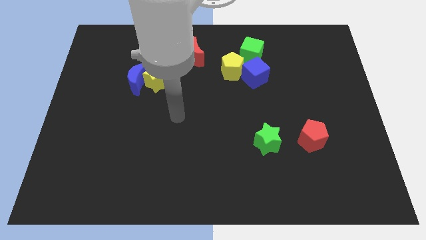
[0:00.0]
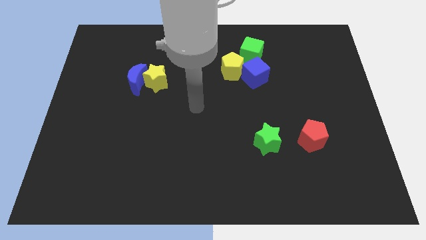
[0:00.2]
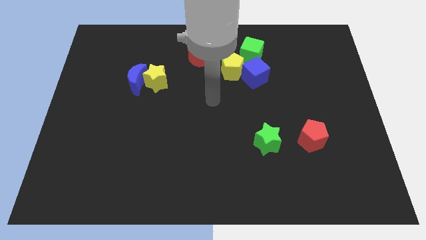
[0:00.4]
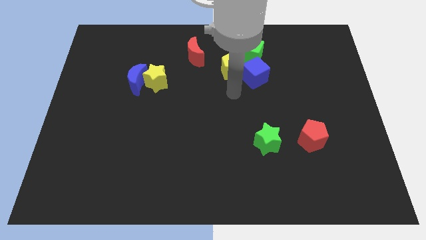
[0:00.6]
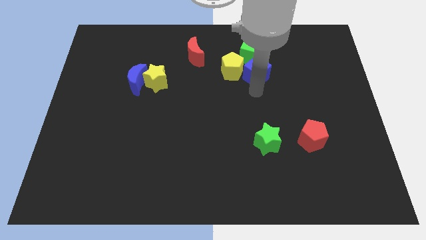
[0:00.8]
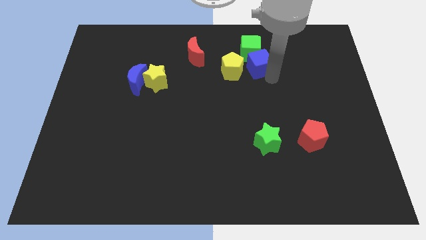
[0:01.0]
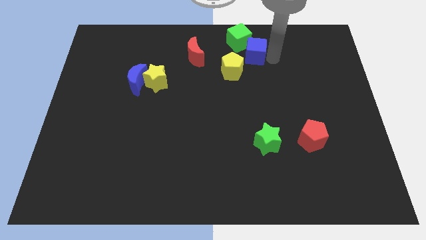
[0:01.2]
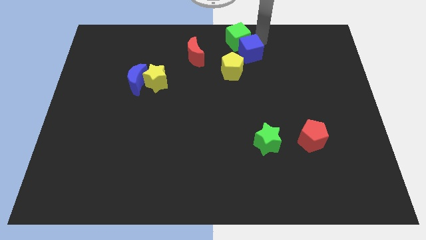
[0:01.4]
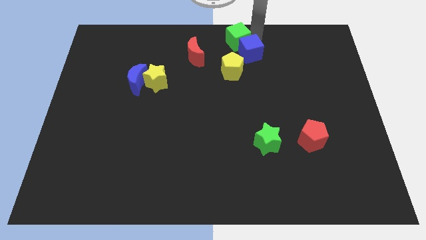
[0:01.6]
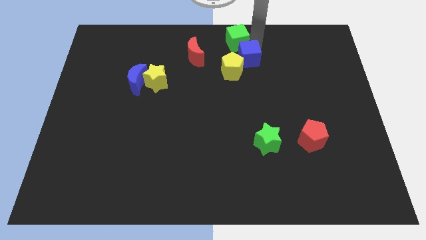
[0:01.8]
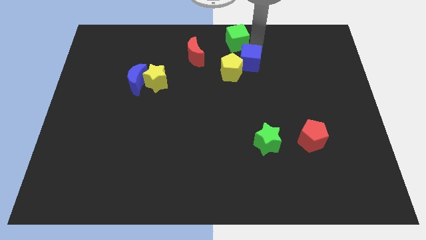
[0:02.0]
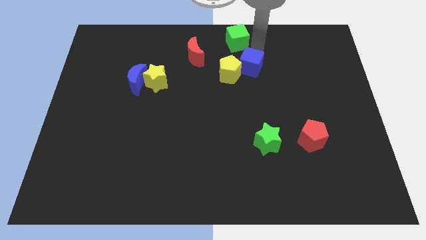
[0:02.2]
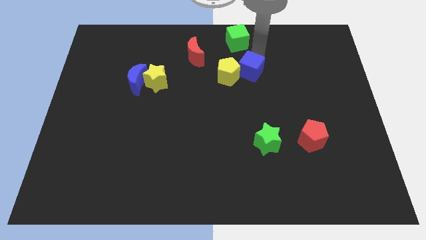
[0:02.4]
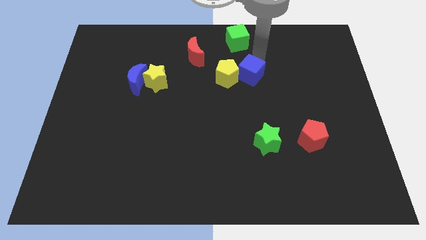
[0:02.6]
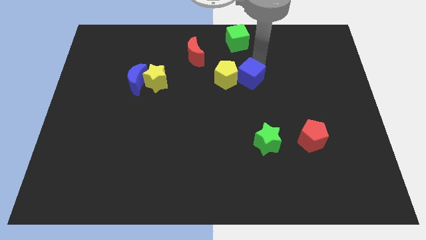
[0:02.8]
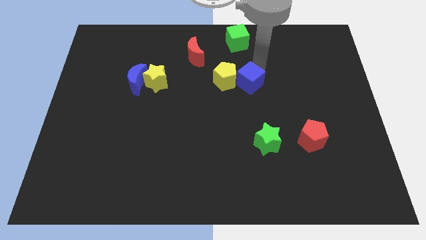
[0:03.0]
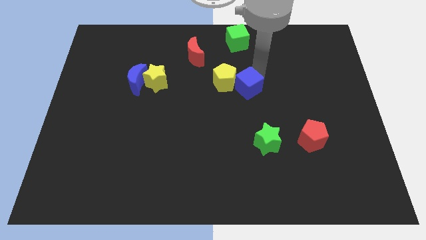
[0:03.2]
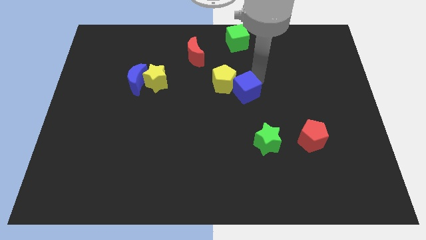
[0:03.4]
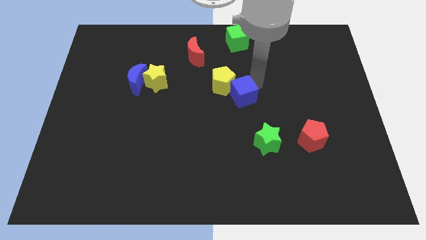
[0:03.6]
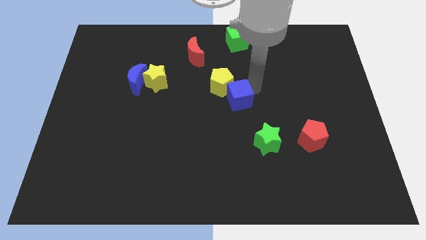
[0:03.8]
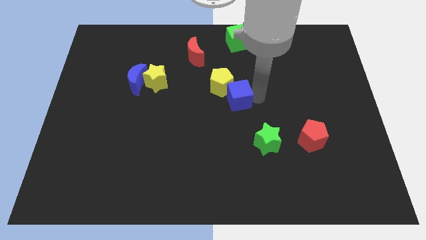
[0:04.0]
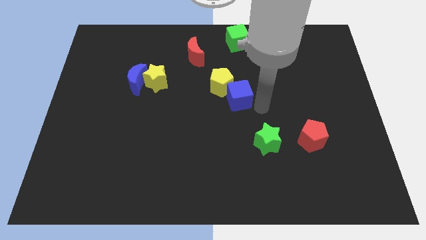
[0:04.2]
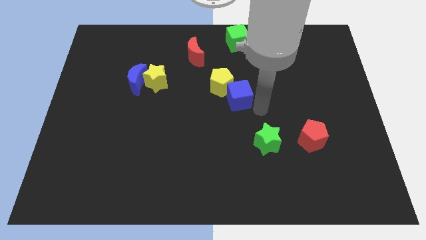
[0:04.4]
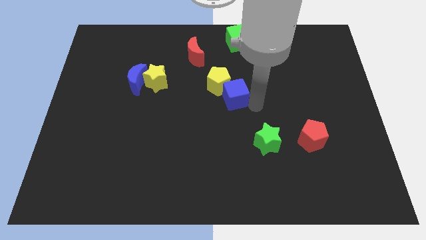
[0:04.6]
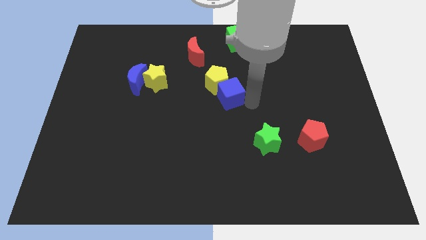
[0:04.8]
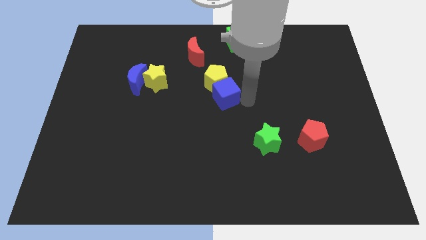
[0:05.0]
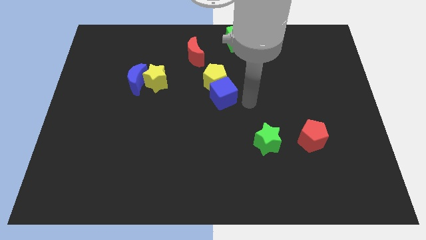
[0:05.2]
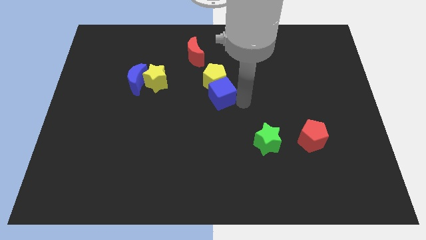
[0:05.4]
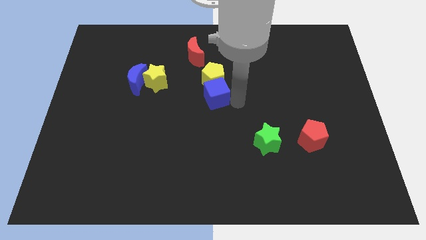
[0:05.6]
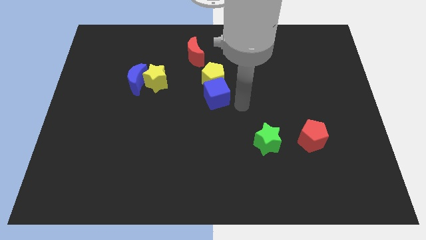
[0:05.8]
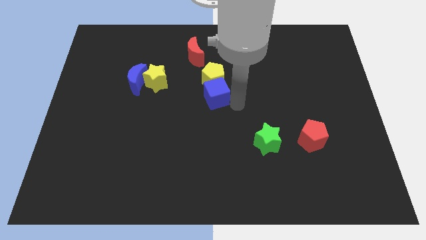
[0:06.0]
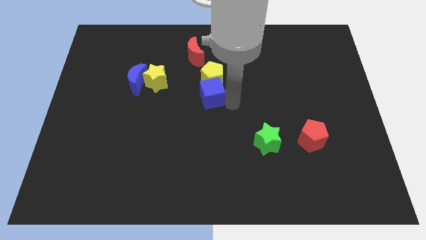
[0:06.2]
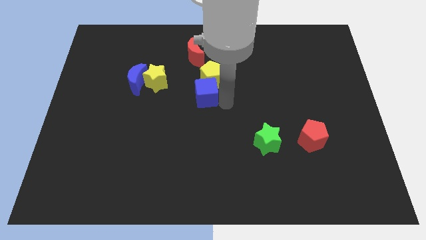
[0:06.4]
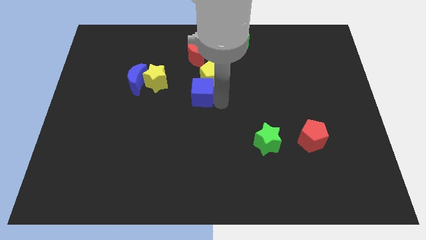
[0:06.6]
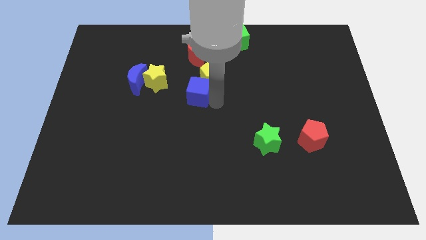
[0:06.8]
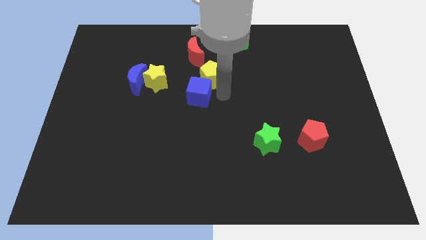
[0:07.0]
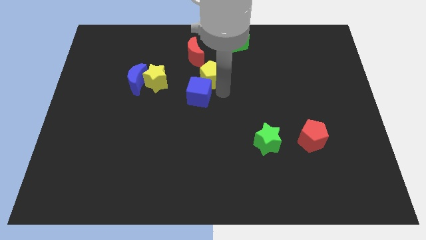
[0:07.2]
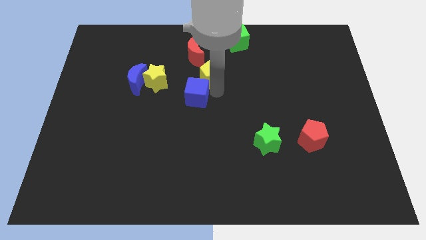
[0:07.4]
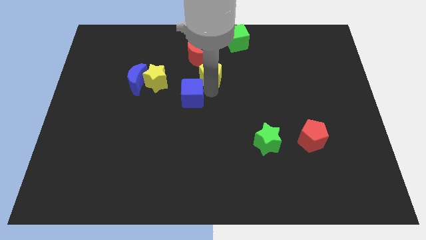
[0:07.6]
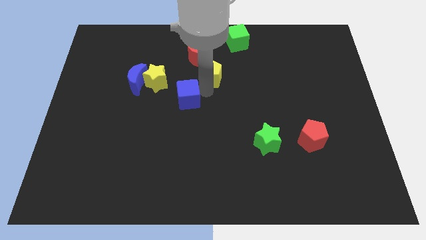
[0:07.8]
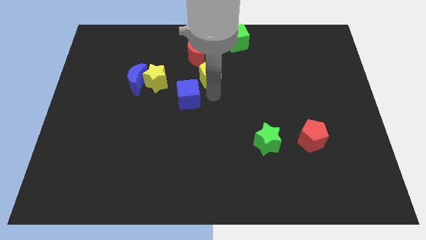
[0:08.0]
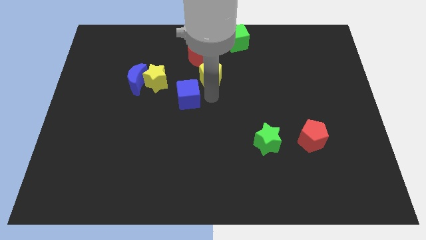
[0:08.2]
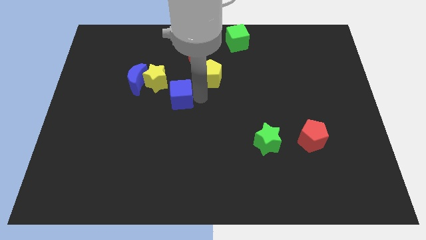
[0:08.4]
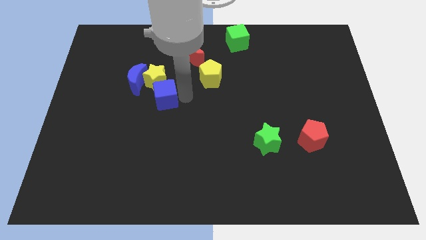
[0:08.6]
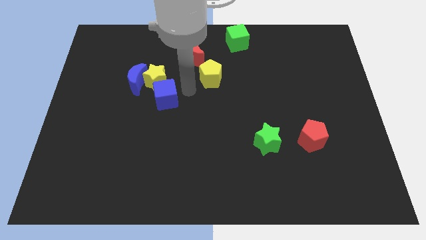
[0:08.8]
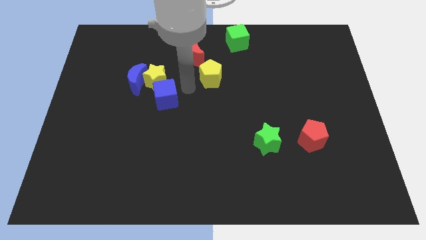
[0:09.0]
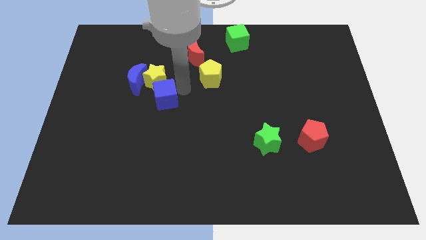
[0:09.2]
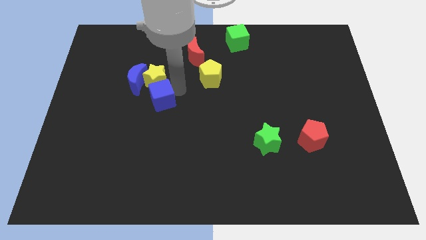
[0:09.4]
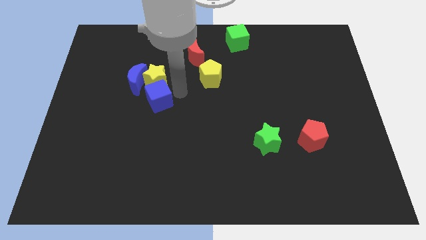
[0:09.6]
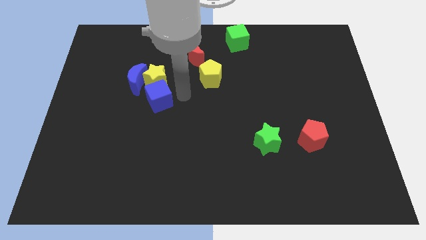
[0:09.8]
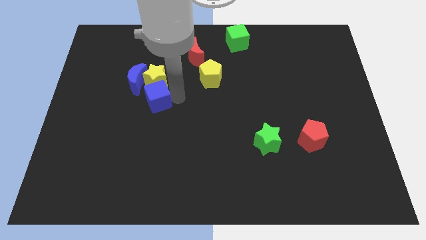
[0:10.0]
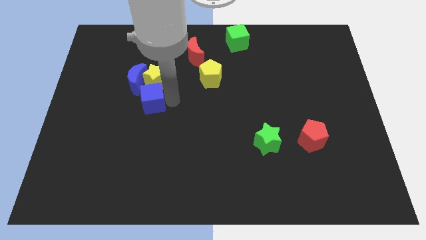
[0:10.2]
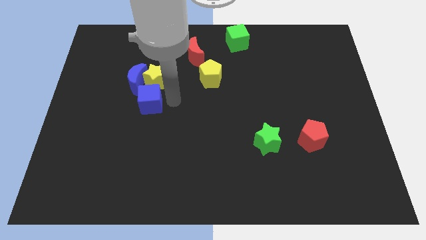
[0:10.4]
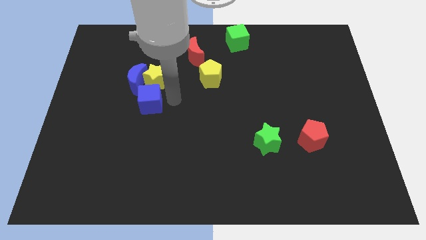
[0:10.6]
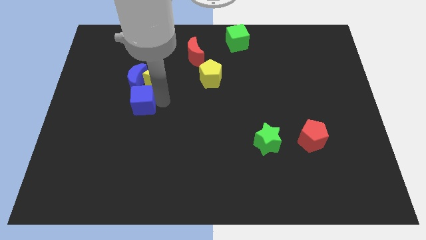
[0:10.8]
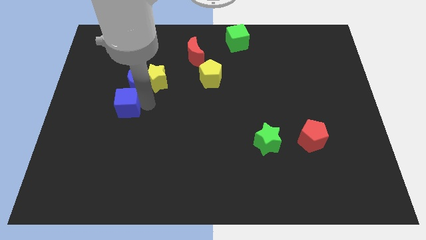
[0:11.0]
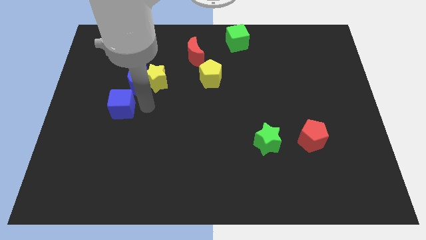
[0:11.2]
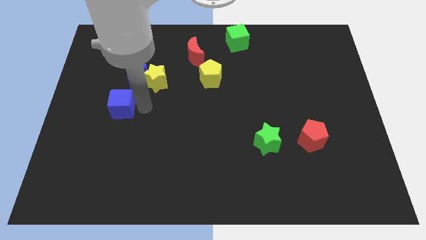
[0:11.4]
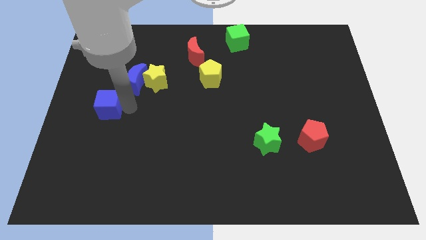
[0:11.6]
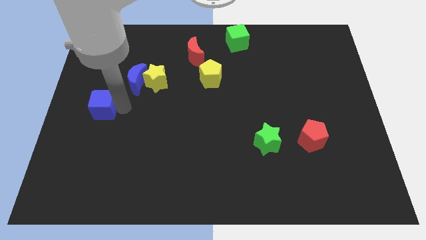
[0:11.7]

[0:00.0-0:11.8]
put the blue cube to the left side of the board

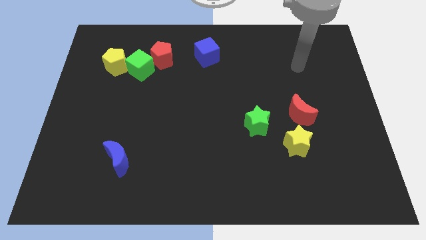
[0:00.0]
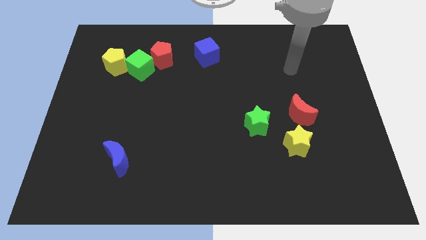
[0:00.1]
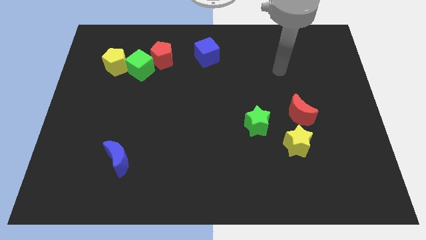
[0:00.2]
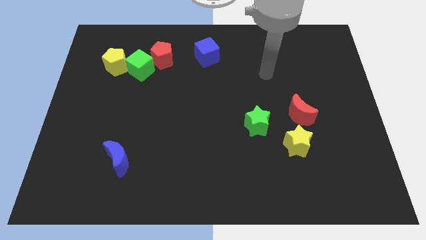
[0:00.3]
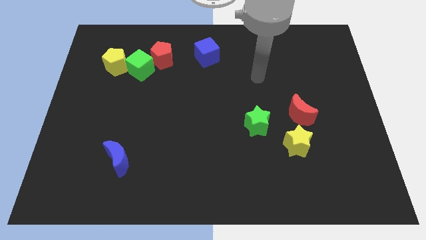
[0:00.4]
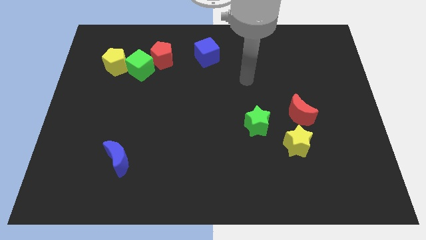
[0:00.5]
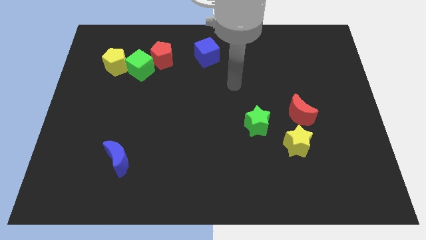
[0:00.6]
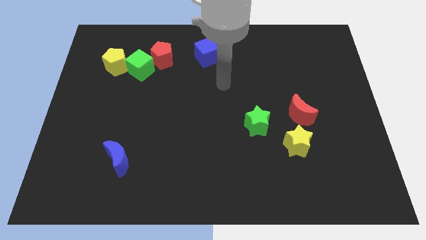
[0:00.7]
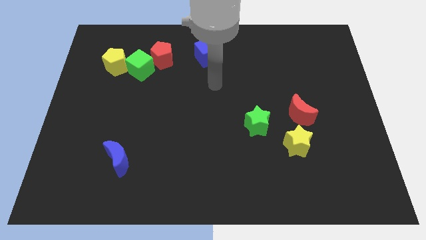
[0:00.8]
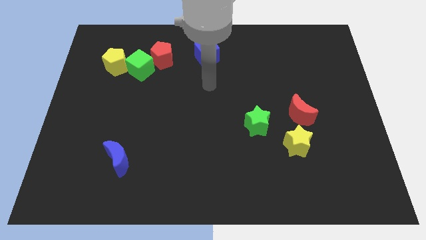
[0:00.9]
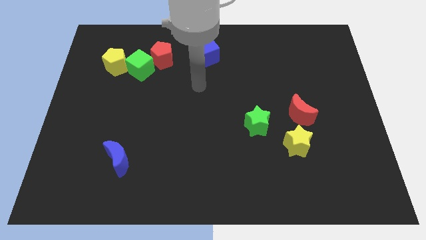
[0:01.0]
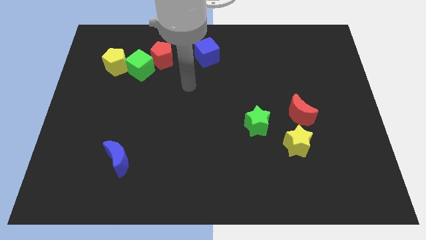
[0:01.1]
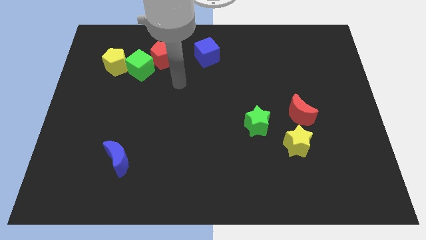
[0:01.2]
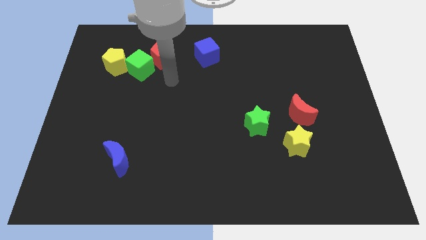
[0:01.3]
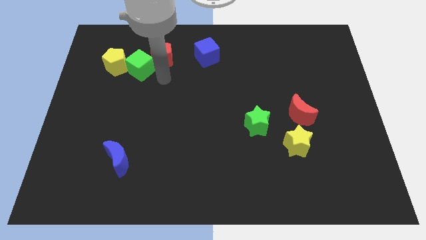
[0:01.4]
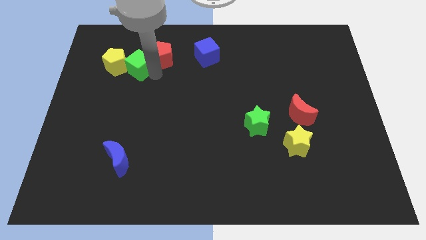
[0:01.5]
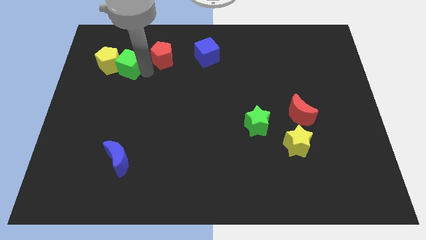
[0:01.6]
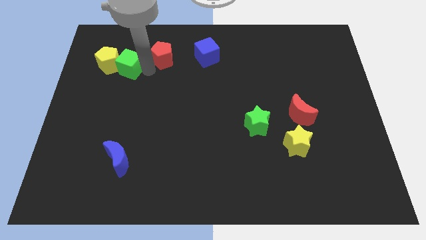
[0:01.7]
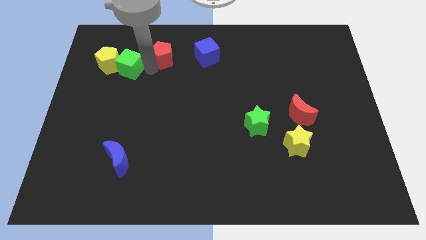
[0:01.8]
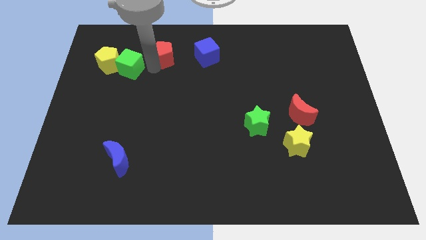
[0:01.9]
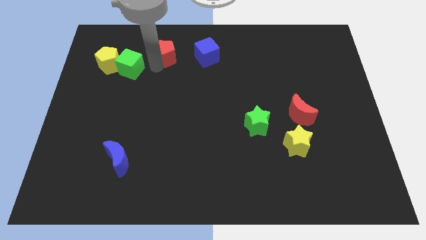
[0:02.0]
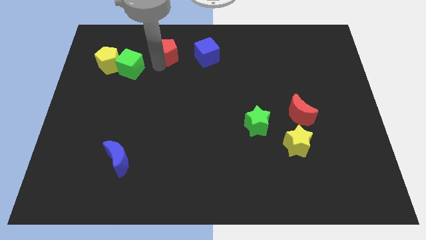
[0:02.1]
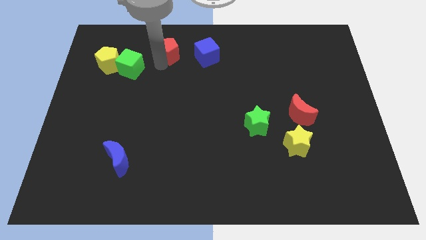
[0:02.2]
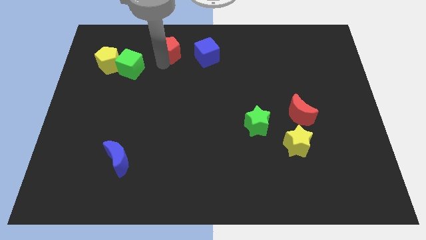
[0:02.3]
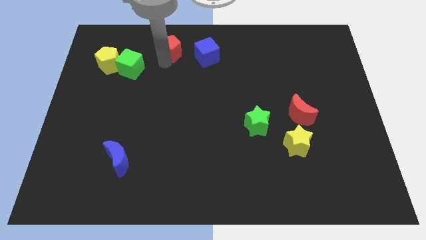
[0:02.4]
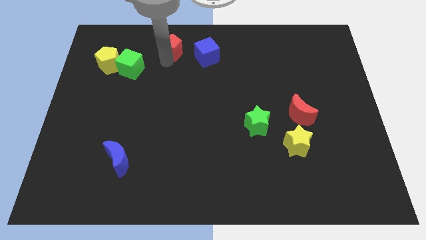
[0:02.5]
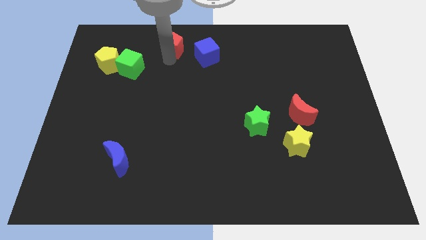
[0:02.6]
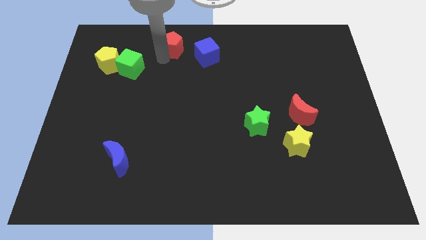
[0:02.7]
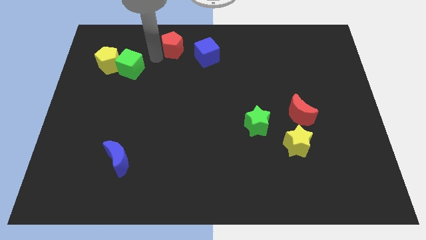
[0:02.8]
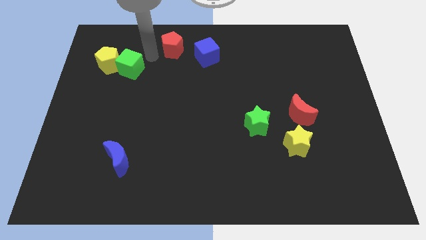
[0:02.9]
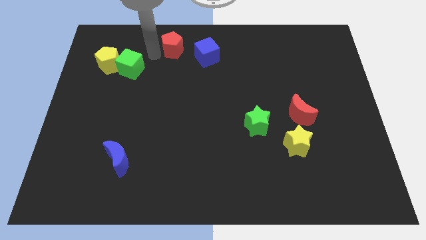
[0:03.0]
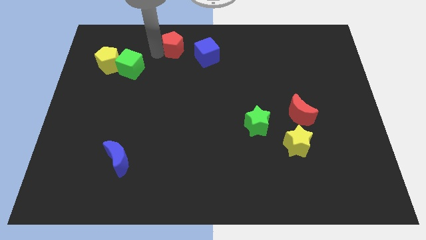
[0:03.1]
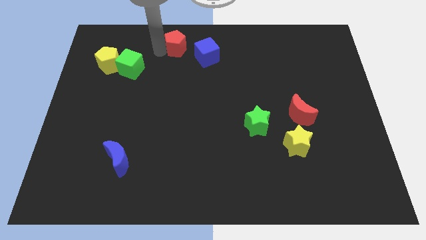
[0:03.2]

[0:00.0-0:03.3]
move the red pentagon to the towards your base
